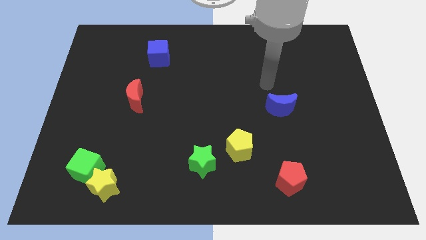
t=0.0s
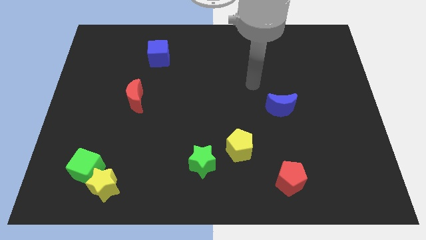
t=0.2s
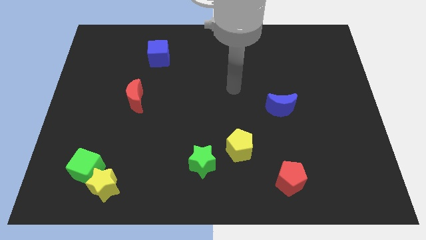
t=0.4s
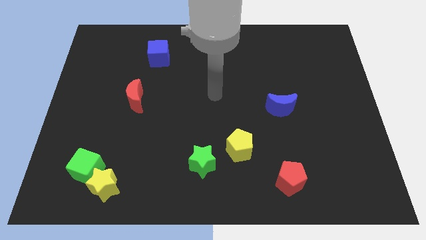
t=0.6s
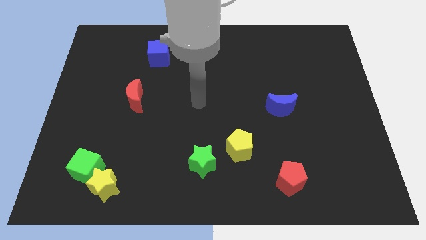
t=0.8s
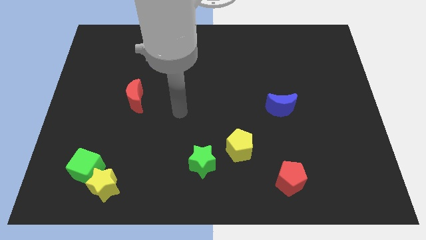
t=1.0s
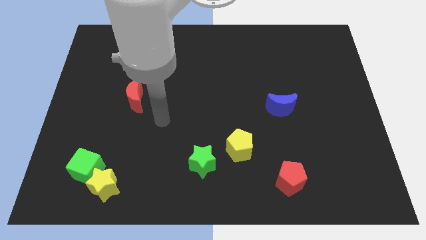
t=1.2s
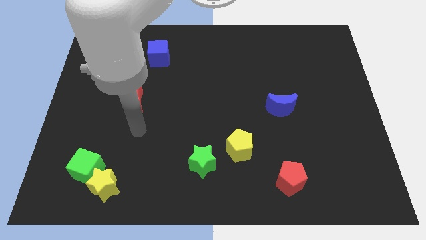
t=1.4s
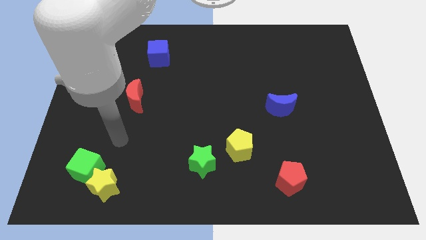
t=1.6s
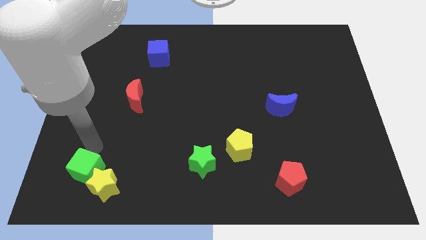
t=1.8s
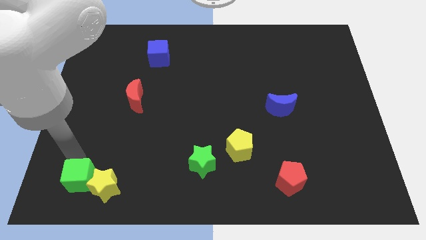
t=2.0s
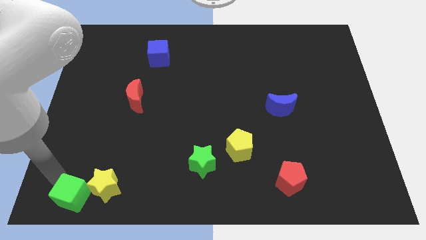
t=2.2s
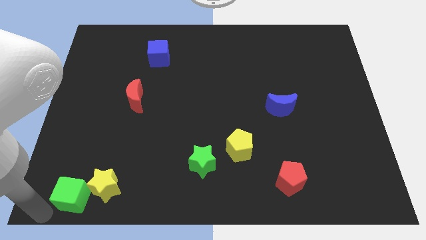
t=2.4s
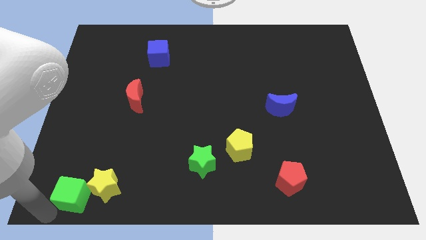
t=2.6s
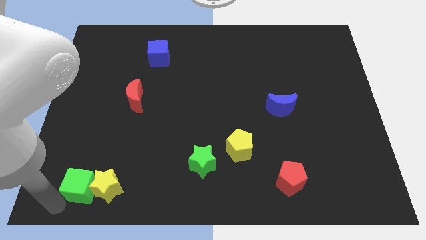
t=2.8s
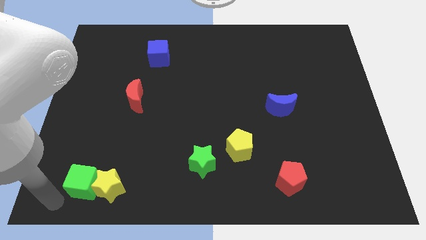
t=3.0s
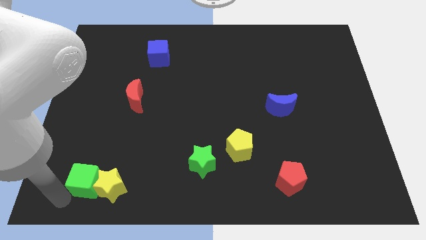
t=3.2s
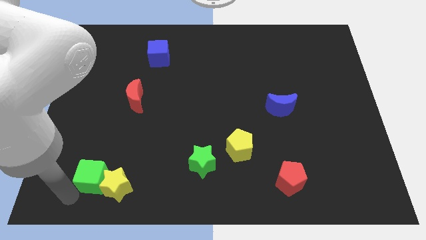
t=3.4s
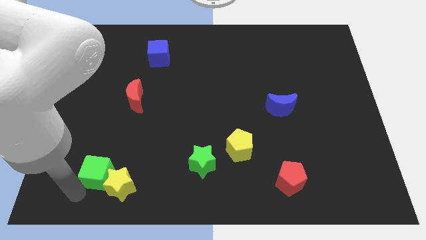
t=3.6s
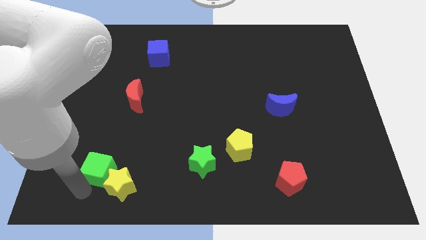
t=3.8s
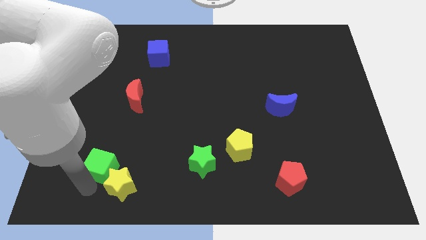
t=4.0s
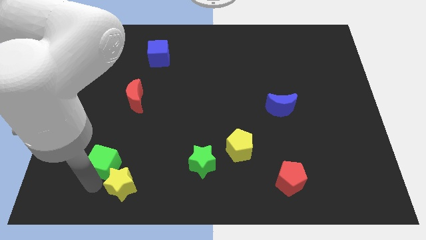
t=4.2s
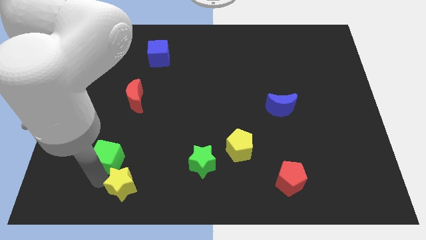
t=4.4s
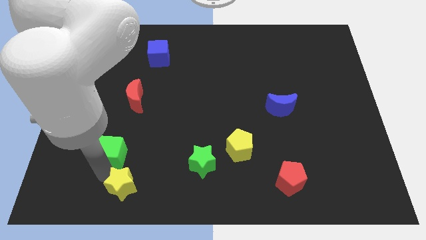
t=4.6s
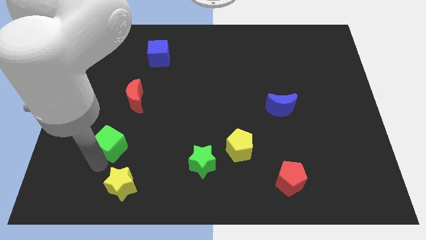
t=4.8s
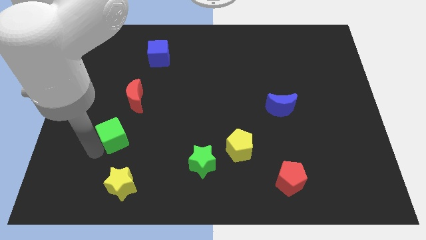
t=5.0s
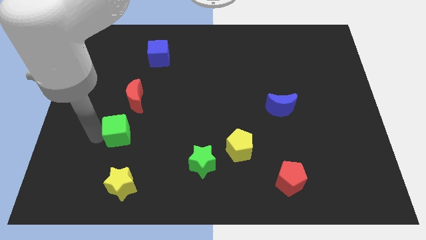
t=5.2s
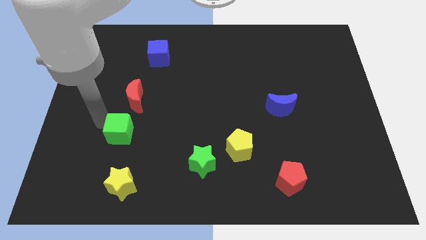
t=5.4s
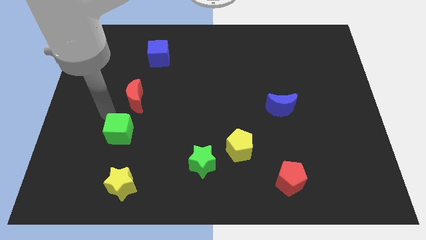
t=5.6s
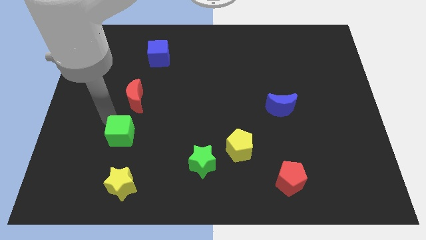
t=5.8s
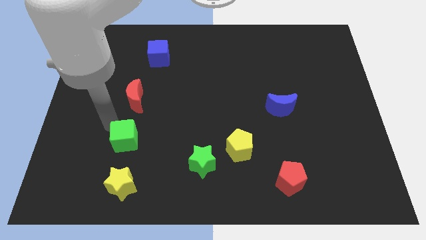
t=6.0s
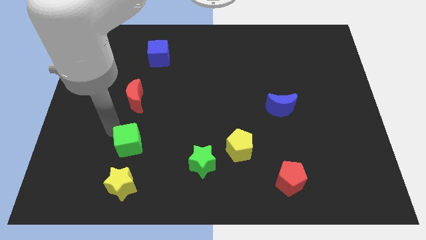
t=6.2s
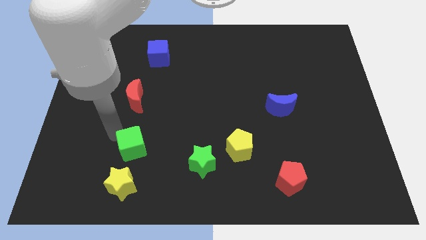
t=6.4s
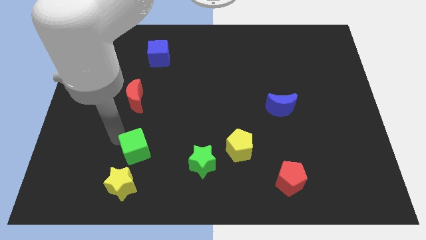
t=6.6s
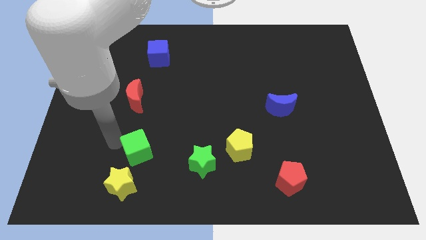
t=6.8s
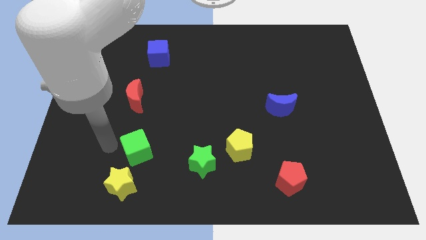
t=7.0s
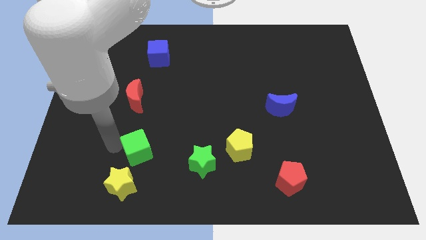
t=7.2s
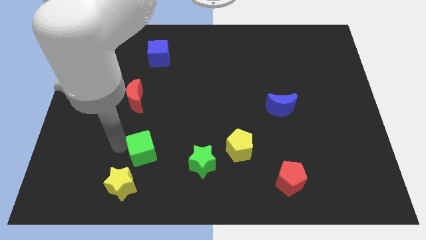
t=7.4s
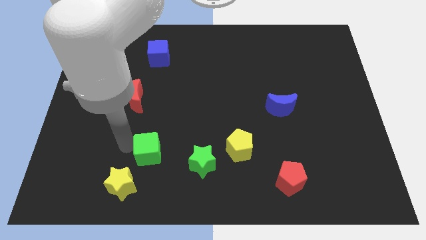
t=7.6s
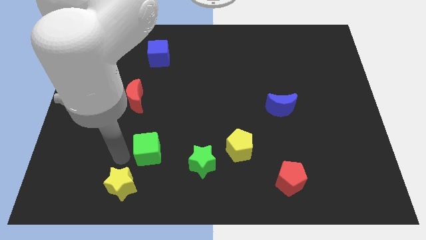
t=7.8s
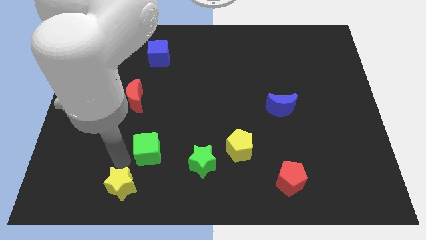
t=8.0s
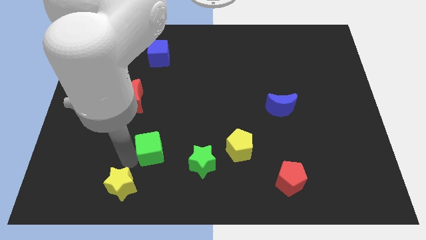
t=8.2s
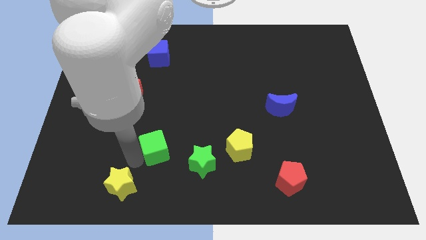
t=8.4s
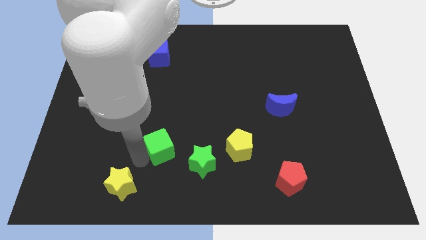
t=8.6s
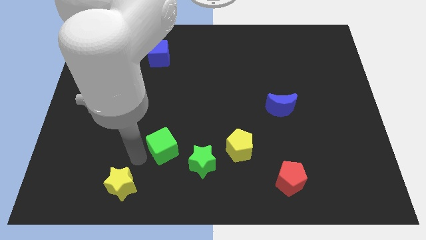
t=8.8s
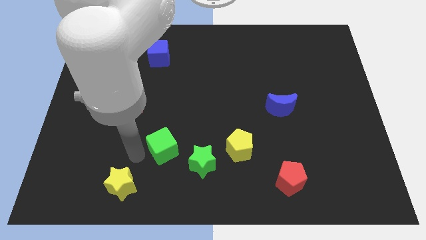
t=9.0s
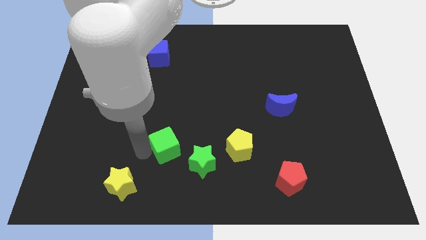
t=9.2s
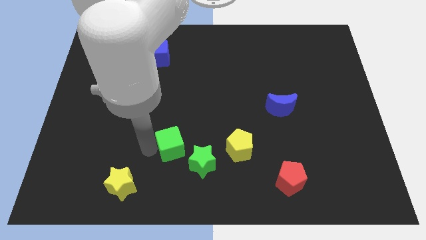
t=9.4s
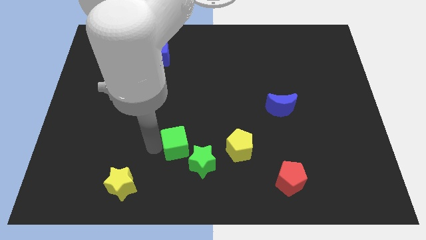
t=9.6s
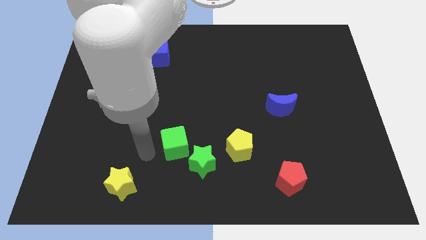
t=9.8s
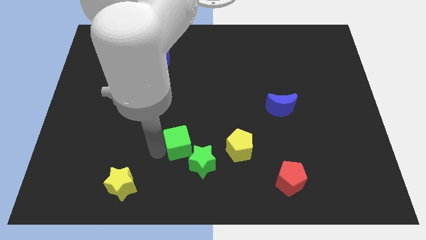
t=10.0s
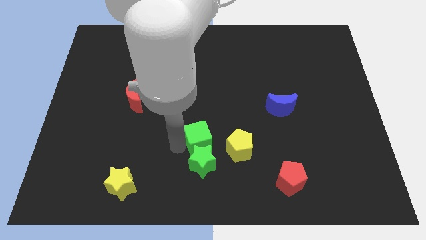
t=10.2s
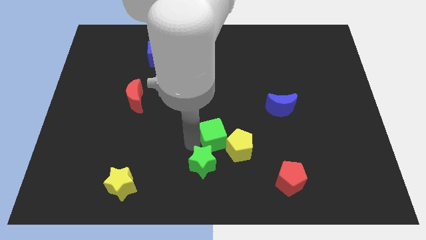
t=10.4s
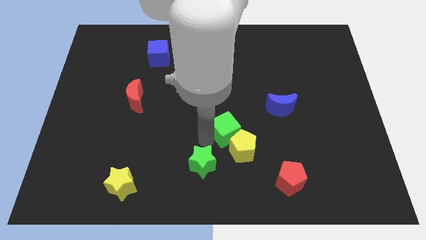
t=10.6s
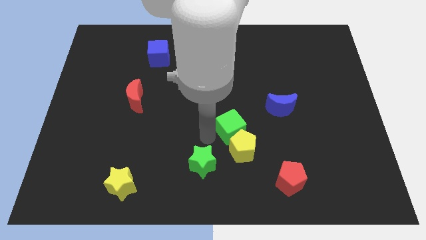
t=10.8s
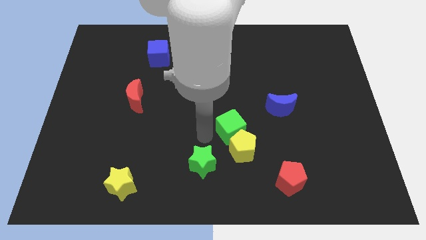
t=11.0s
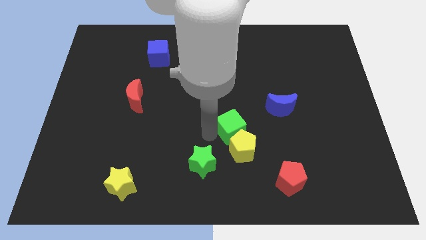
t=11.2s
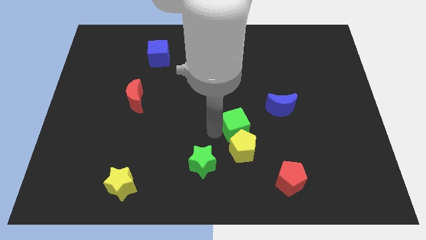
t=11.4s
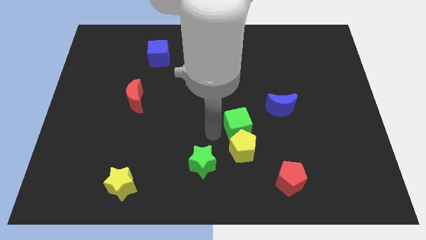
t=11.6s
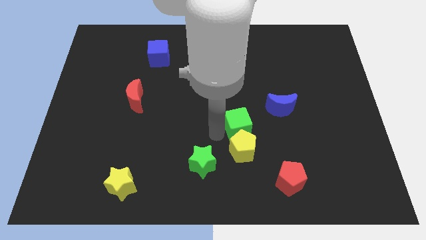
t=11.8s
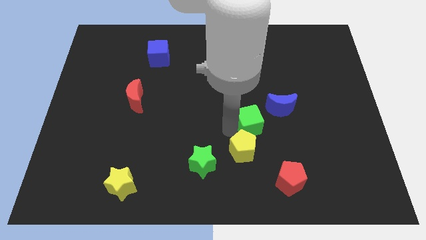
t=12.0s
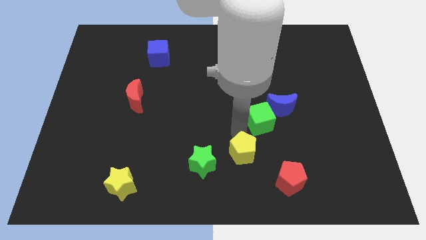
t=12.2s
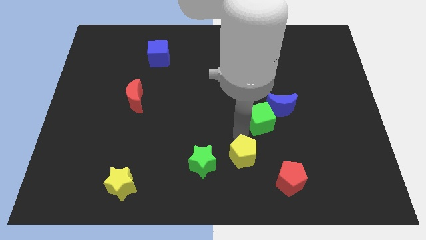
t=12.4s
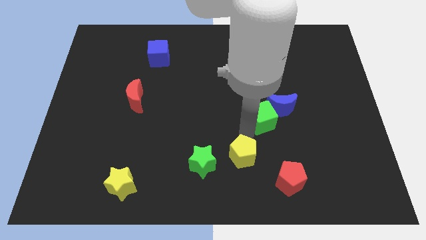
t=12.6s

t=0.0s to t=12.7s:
move the green cube close to the blue moon
